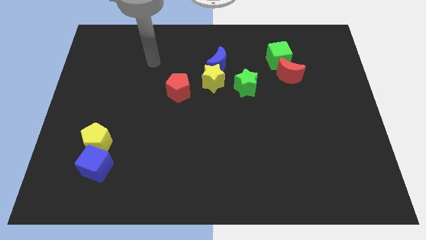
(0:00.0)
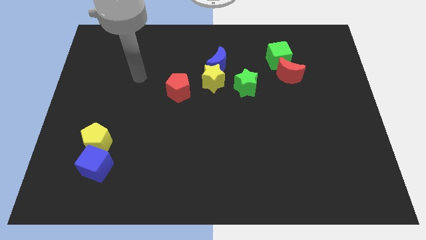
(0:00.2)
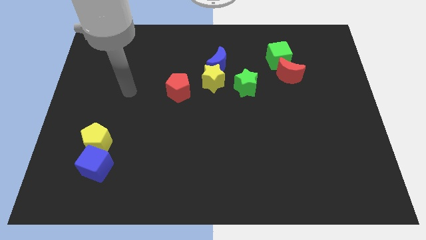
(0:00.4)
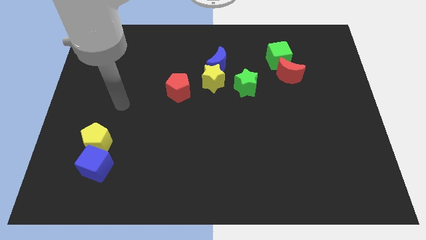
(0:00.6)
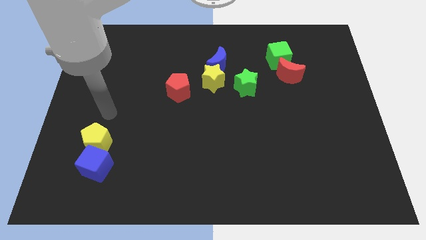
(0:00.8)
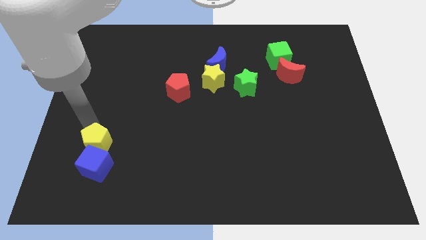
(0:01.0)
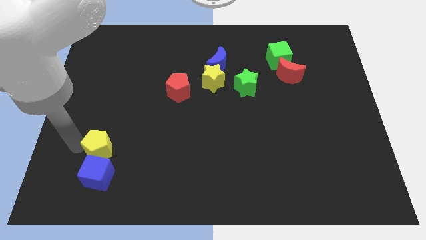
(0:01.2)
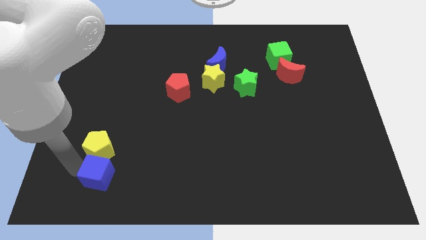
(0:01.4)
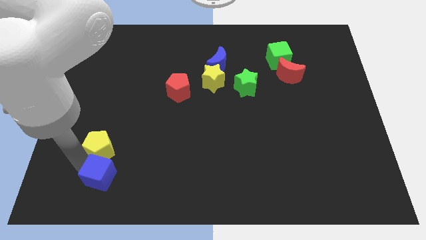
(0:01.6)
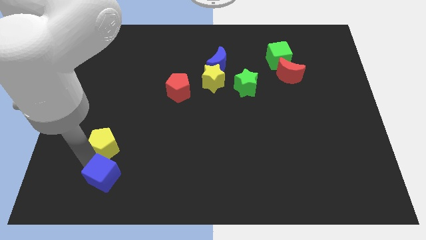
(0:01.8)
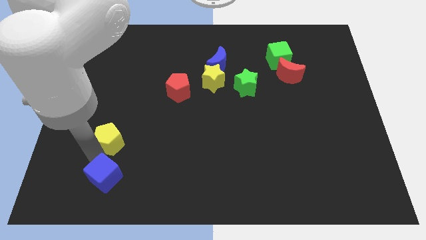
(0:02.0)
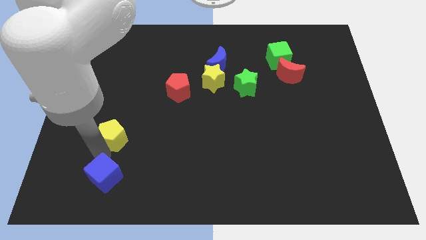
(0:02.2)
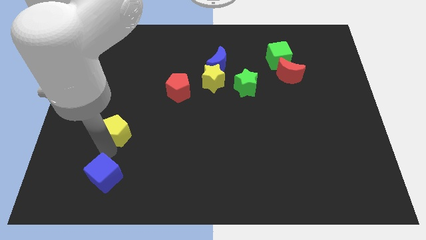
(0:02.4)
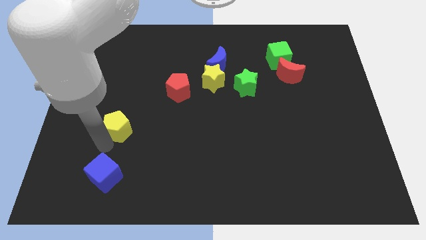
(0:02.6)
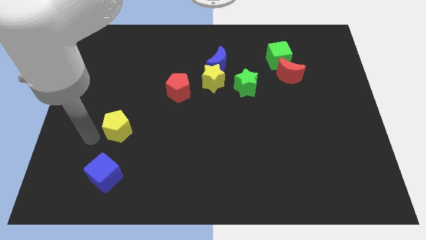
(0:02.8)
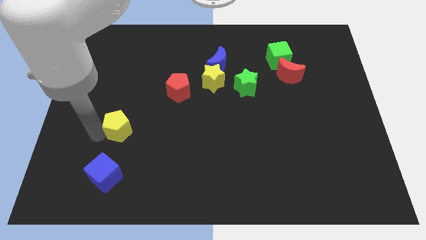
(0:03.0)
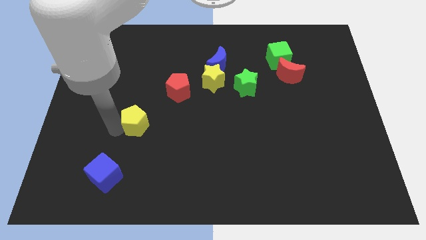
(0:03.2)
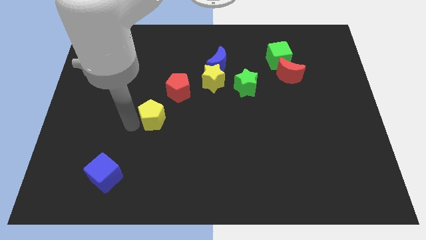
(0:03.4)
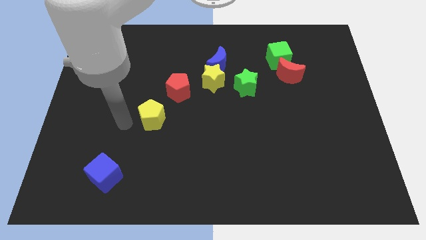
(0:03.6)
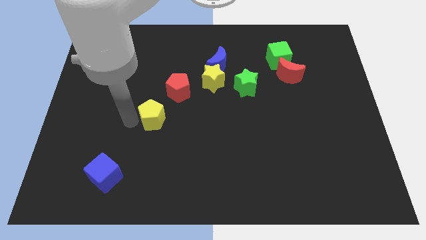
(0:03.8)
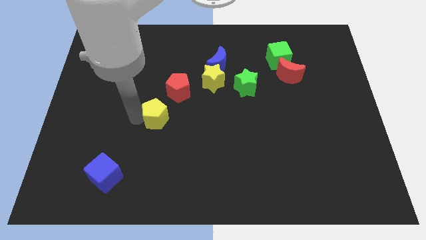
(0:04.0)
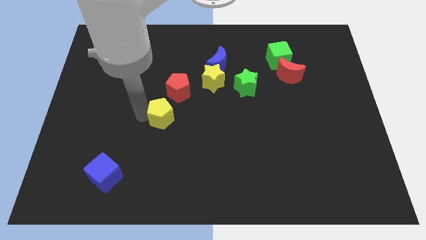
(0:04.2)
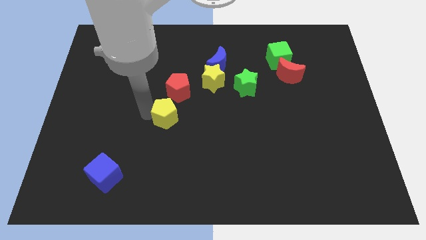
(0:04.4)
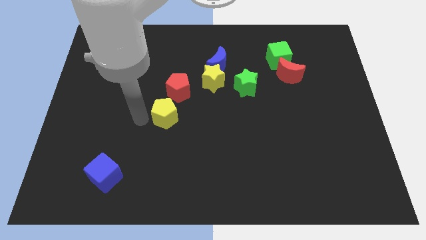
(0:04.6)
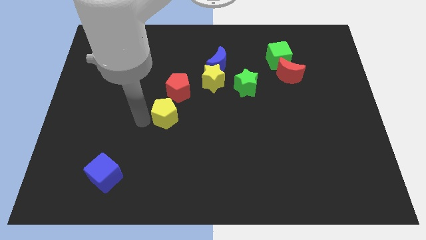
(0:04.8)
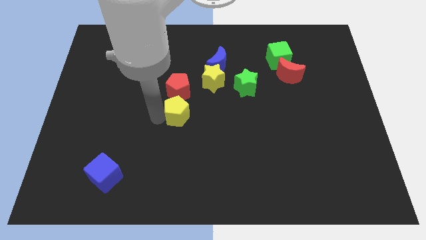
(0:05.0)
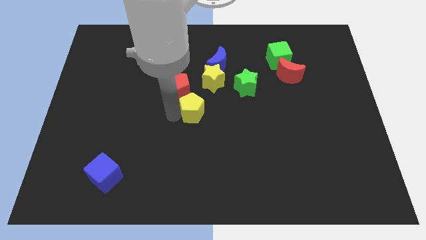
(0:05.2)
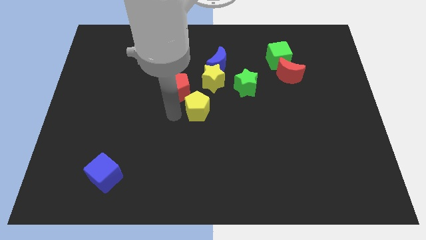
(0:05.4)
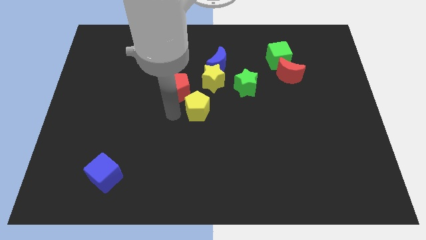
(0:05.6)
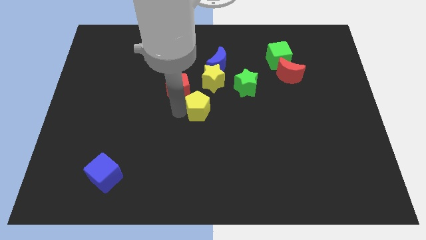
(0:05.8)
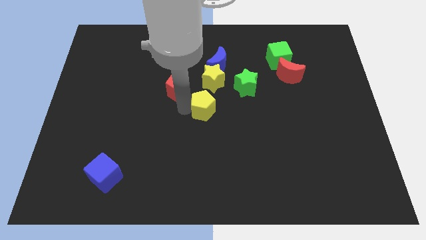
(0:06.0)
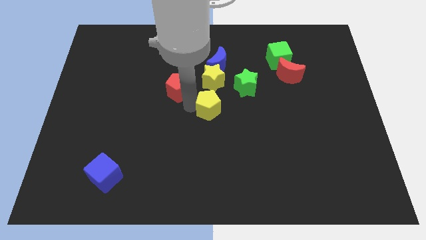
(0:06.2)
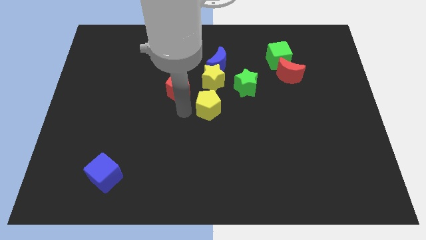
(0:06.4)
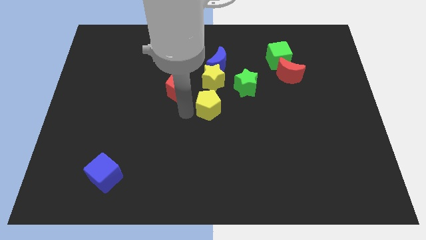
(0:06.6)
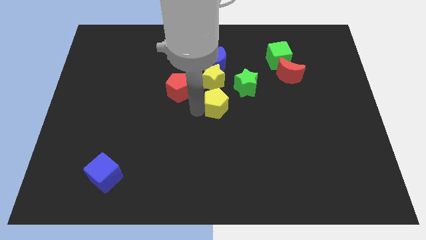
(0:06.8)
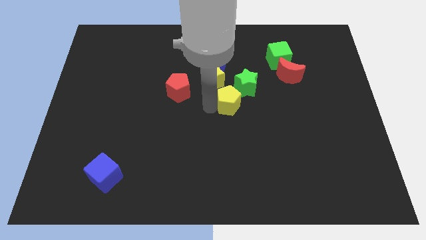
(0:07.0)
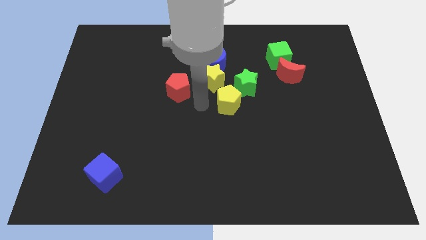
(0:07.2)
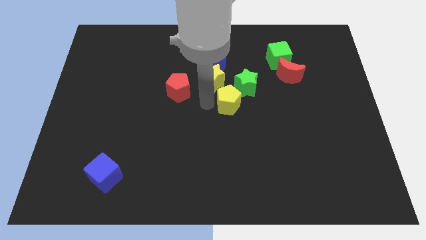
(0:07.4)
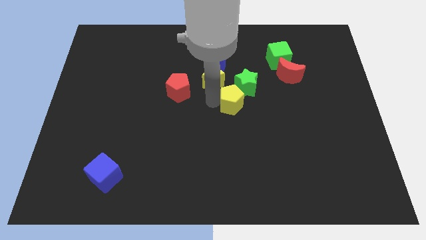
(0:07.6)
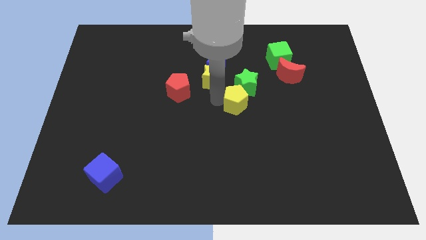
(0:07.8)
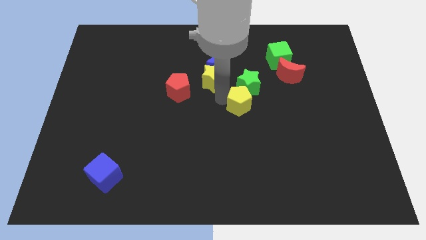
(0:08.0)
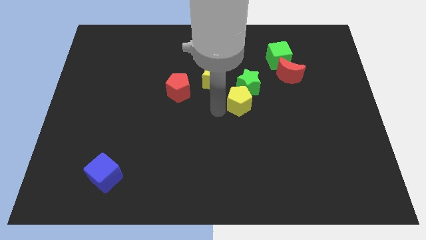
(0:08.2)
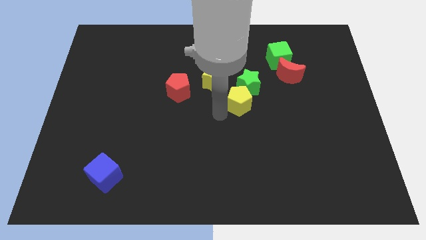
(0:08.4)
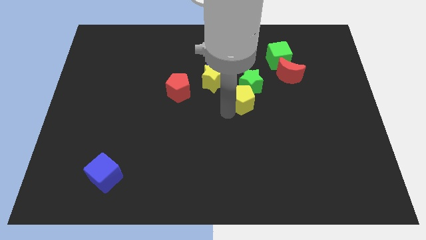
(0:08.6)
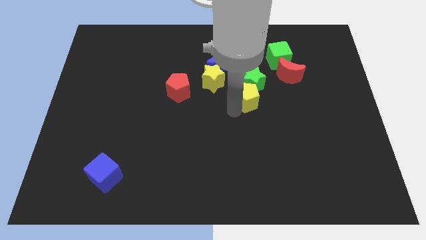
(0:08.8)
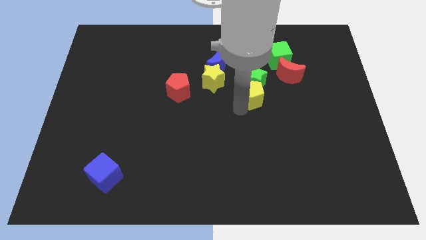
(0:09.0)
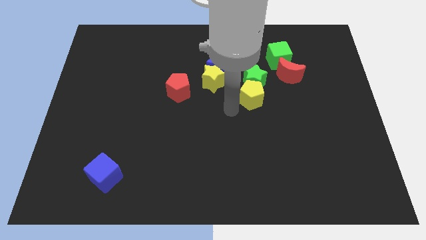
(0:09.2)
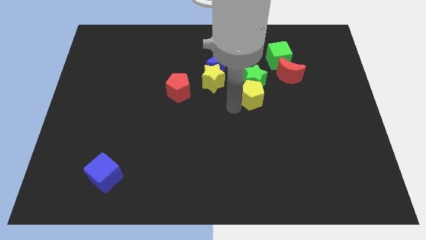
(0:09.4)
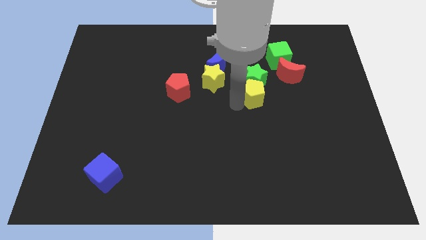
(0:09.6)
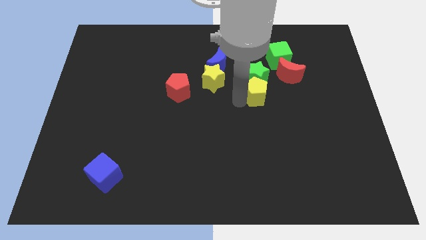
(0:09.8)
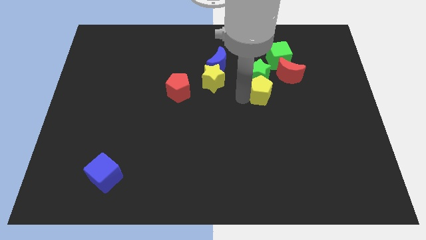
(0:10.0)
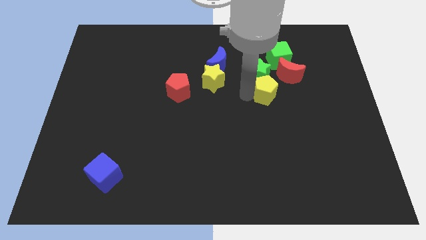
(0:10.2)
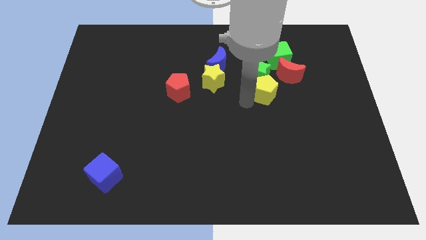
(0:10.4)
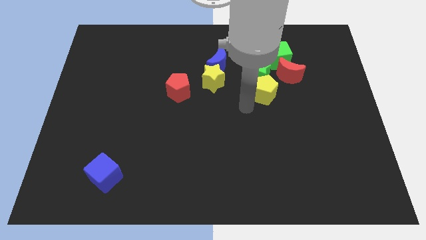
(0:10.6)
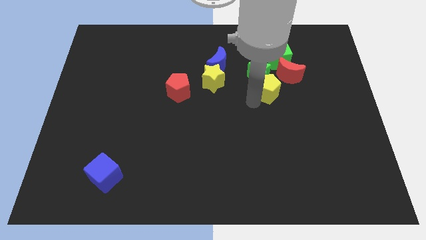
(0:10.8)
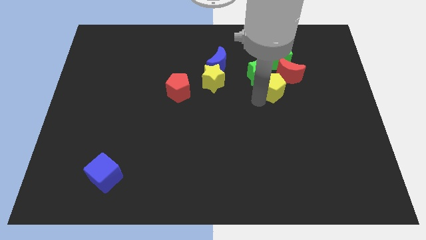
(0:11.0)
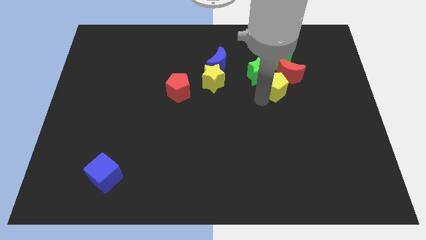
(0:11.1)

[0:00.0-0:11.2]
push the yellow pentagon next to the red moon

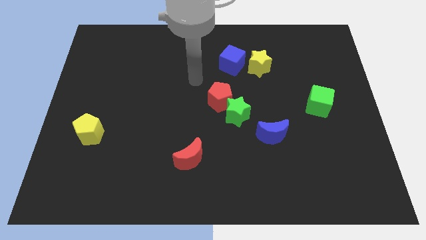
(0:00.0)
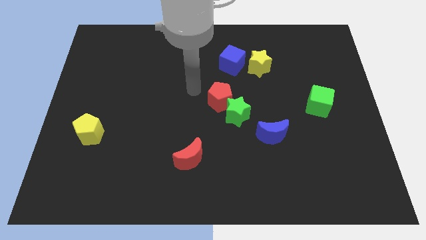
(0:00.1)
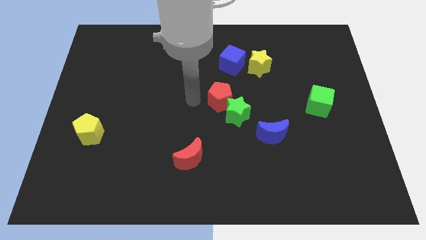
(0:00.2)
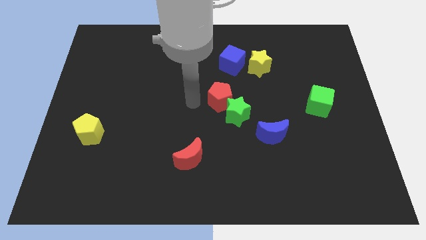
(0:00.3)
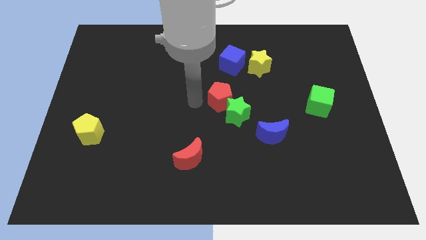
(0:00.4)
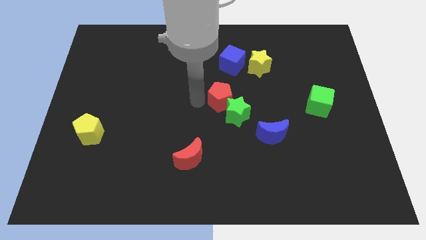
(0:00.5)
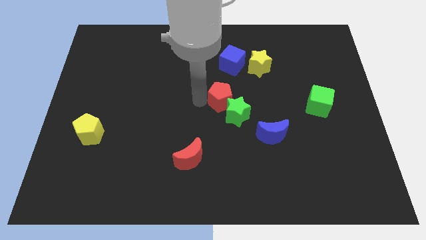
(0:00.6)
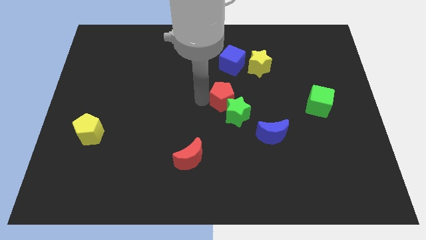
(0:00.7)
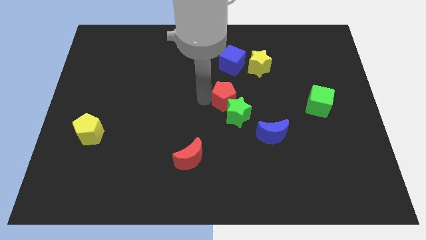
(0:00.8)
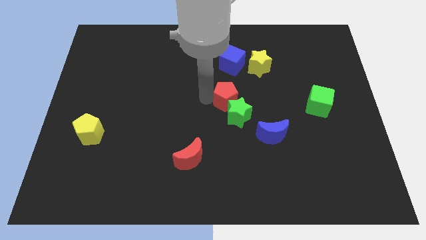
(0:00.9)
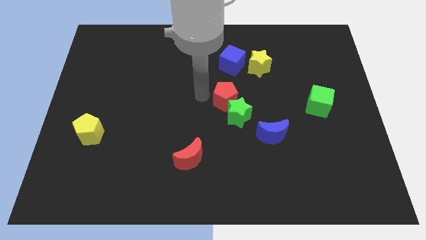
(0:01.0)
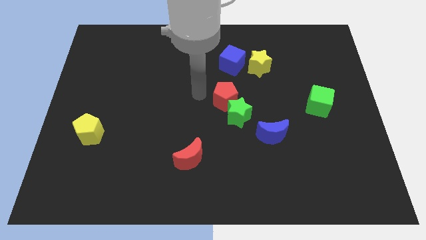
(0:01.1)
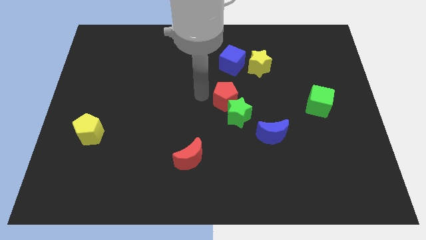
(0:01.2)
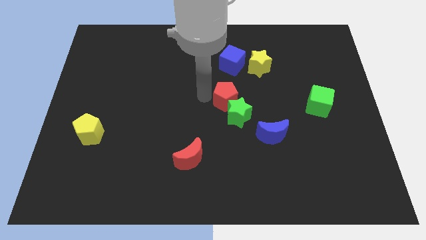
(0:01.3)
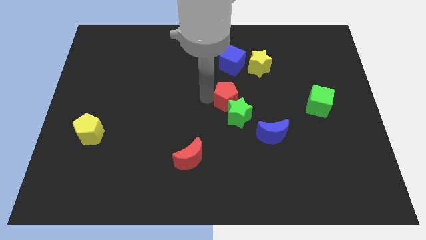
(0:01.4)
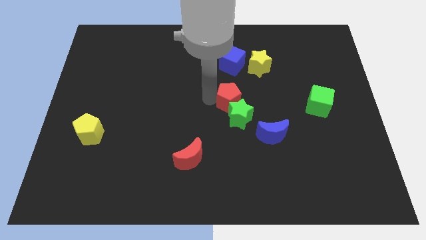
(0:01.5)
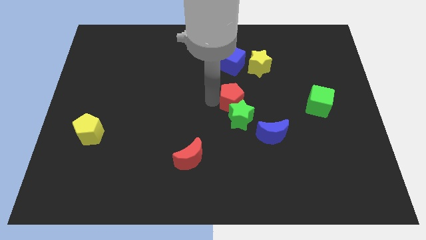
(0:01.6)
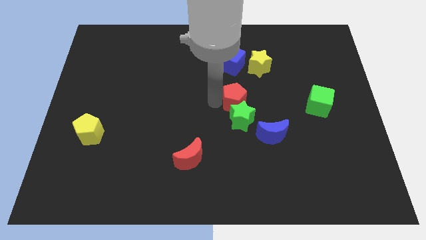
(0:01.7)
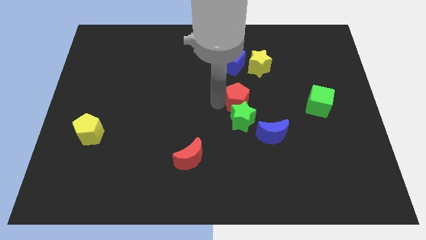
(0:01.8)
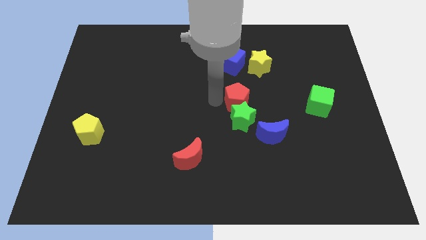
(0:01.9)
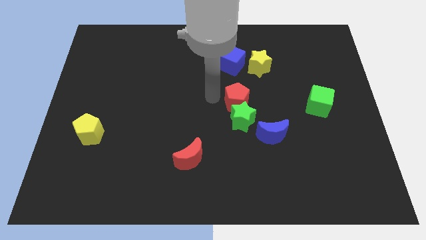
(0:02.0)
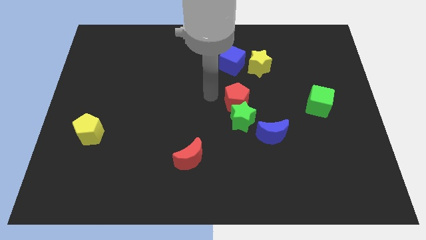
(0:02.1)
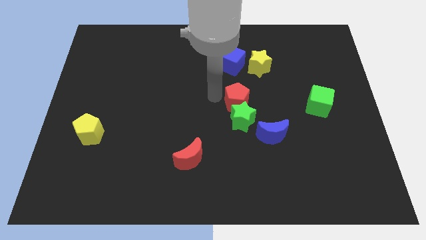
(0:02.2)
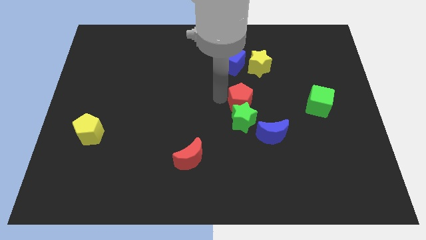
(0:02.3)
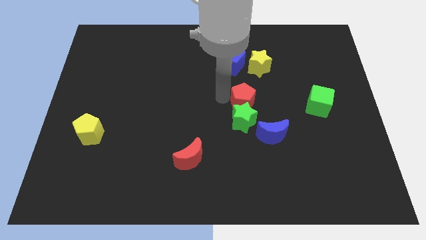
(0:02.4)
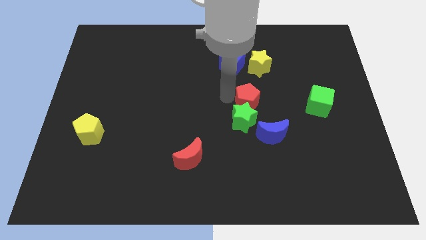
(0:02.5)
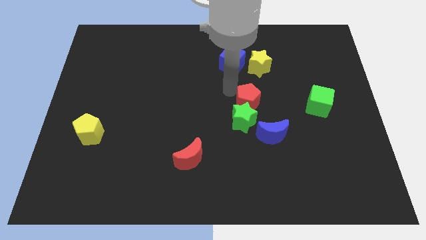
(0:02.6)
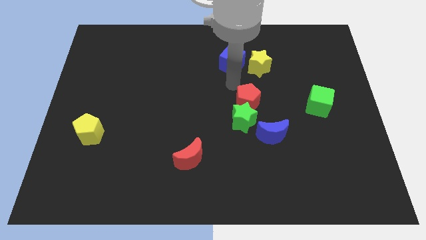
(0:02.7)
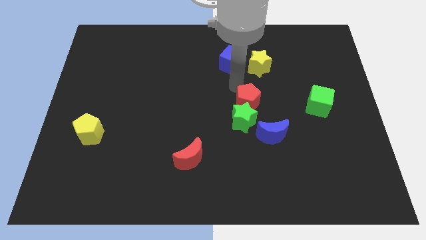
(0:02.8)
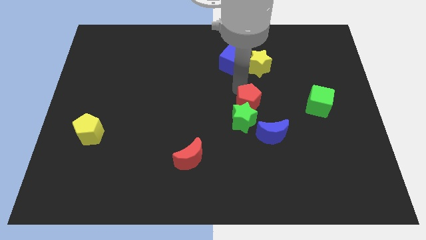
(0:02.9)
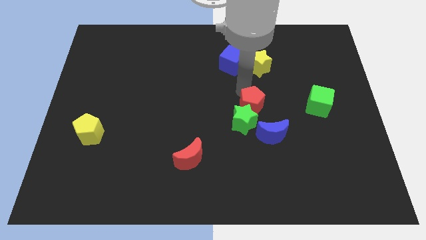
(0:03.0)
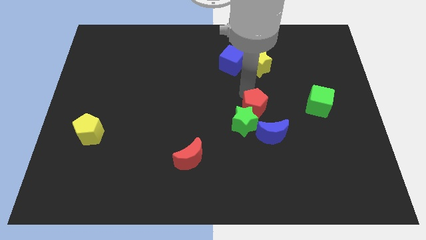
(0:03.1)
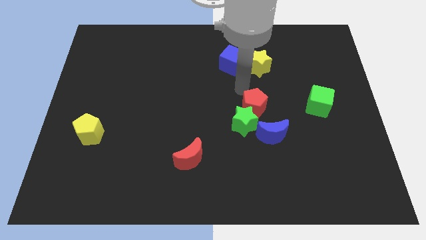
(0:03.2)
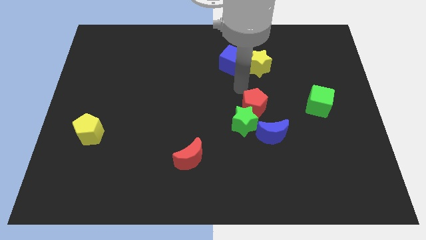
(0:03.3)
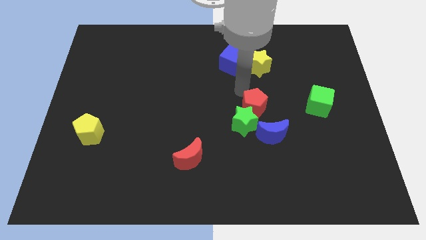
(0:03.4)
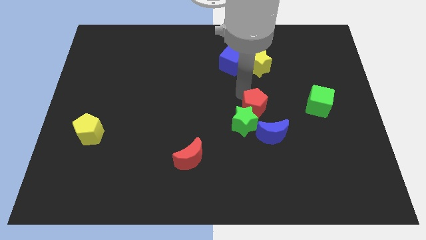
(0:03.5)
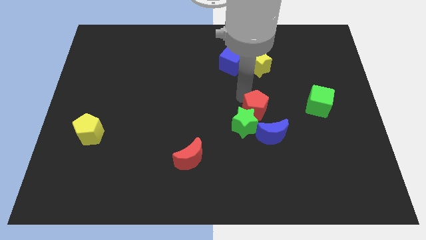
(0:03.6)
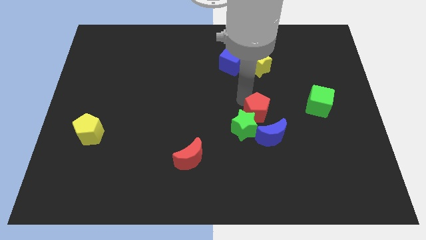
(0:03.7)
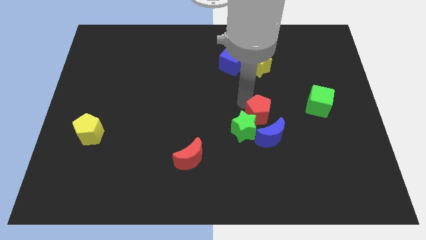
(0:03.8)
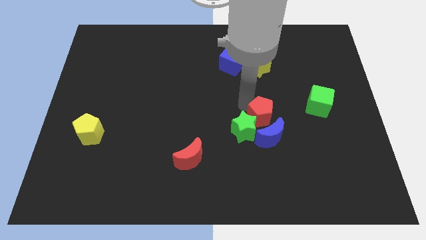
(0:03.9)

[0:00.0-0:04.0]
slide the red pentagon towards the blue moon
